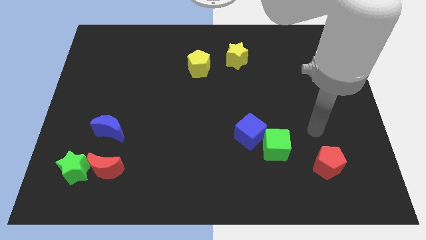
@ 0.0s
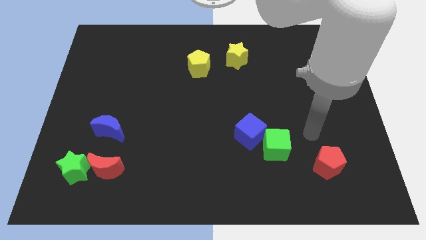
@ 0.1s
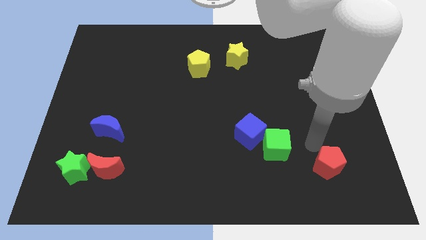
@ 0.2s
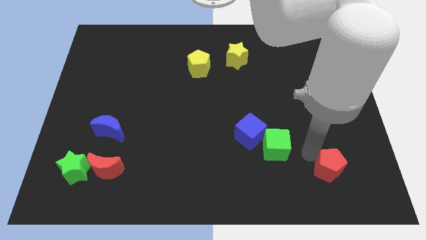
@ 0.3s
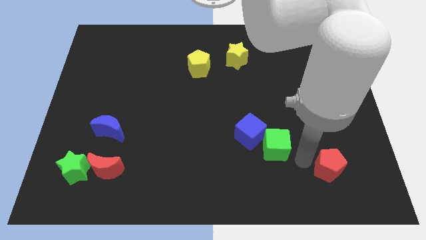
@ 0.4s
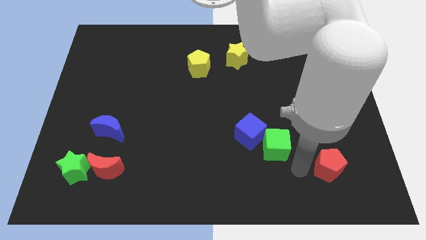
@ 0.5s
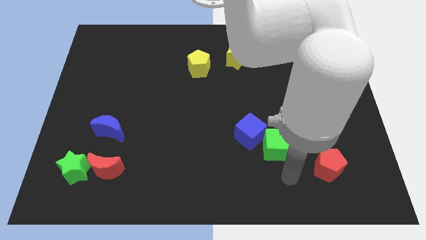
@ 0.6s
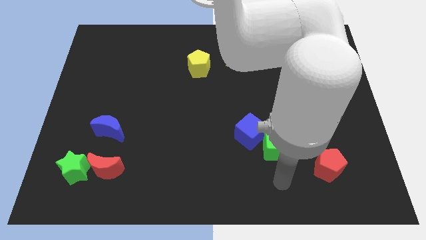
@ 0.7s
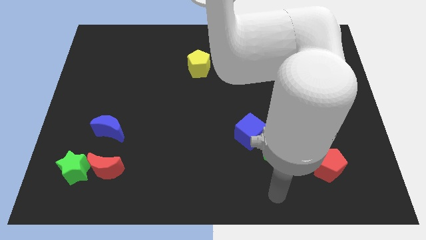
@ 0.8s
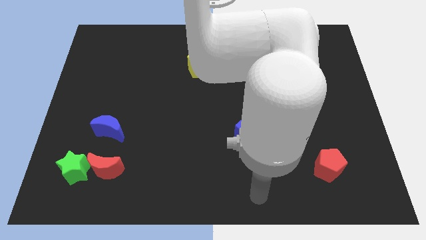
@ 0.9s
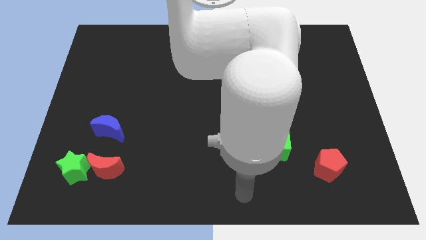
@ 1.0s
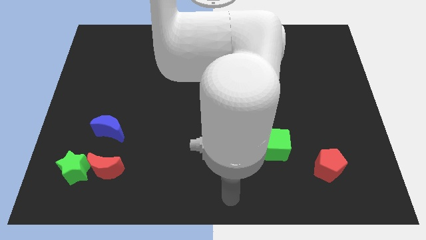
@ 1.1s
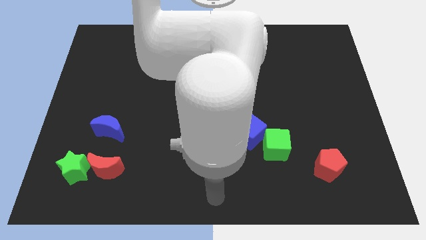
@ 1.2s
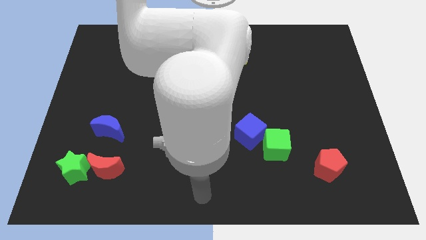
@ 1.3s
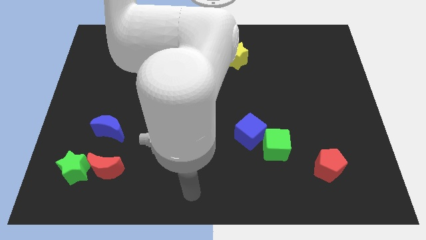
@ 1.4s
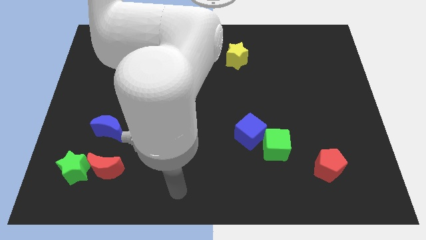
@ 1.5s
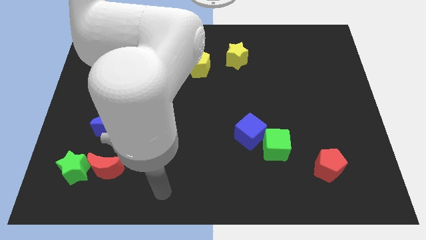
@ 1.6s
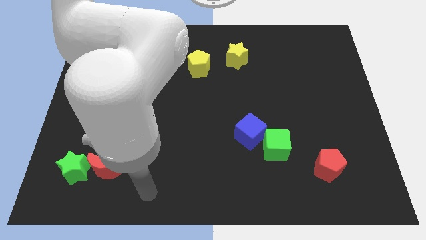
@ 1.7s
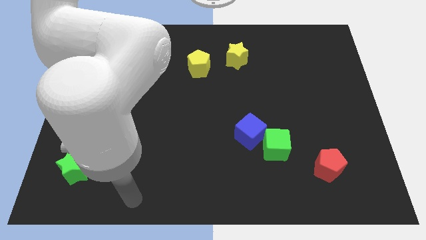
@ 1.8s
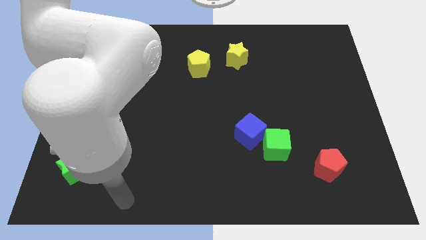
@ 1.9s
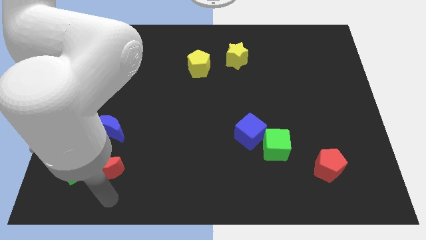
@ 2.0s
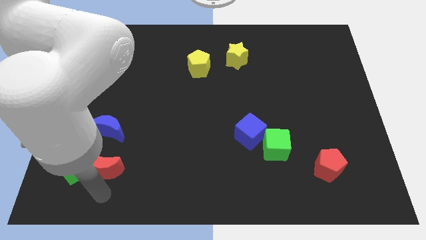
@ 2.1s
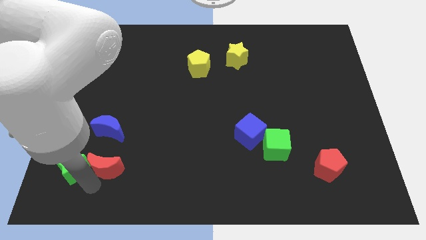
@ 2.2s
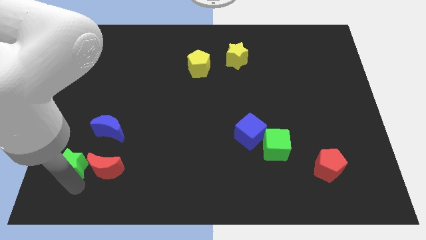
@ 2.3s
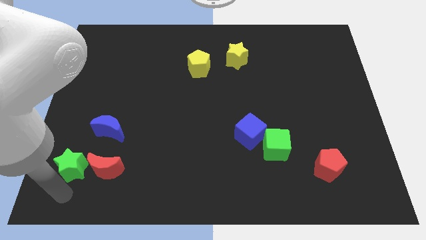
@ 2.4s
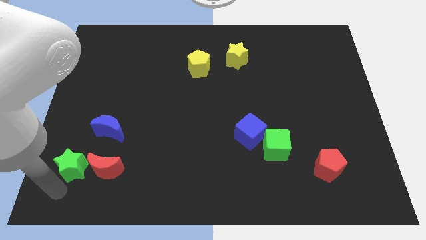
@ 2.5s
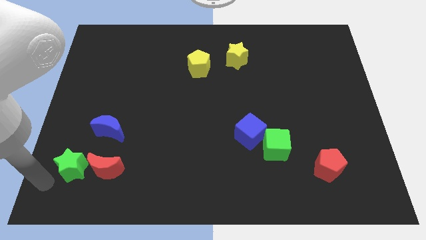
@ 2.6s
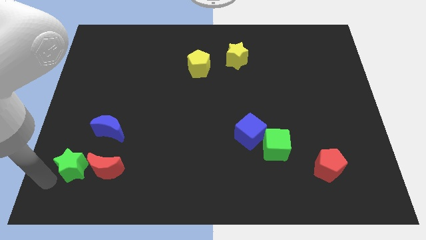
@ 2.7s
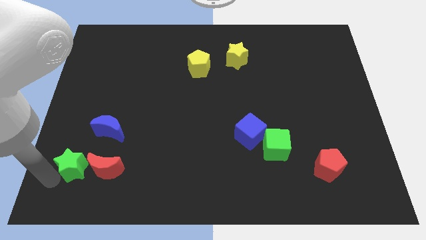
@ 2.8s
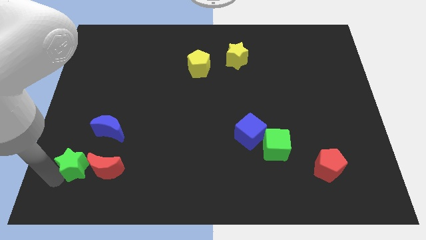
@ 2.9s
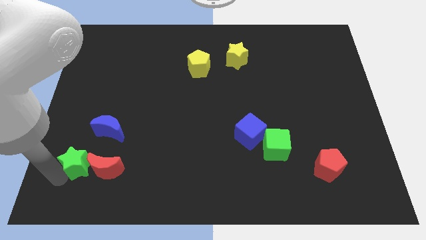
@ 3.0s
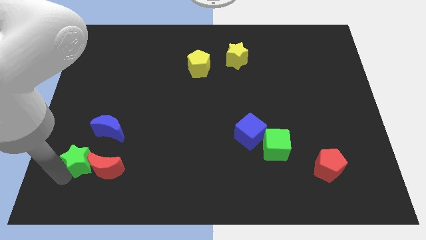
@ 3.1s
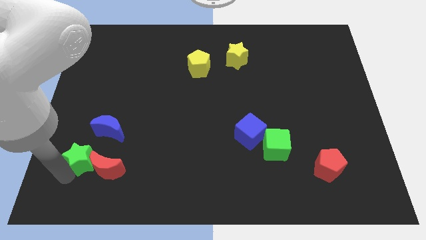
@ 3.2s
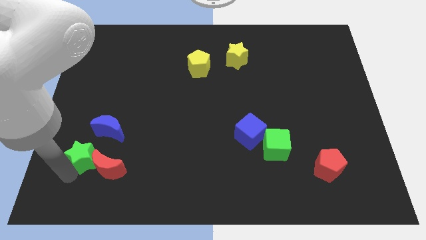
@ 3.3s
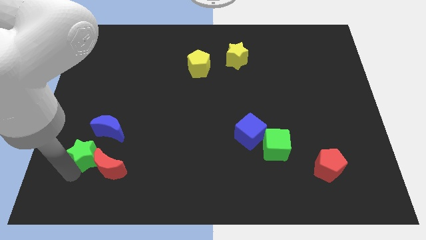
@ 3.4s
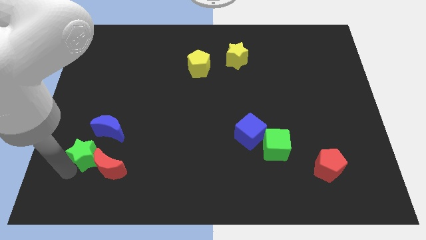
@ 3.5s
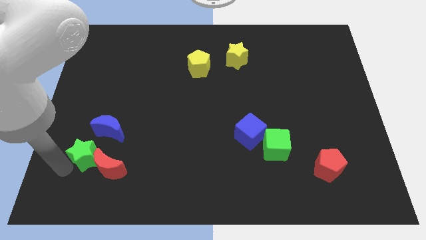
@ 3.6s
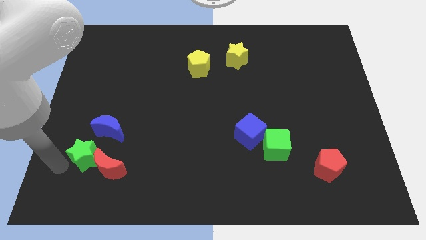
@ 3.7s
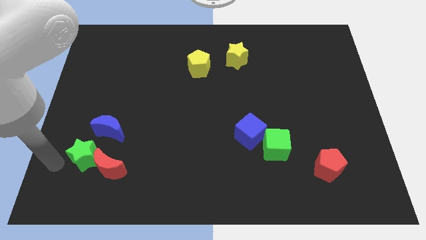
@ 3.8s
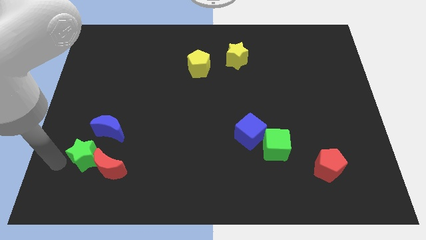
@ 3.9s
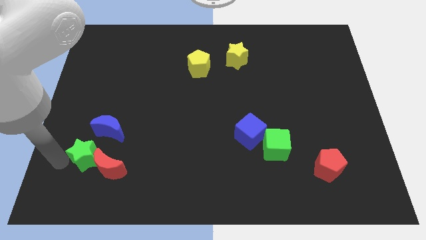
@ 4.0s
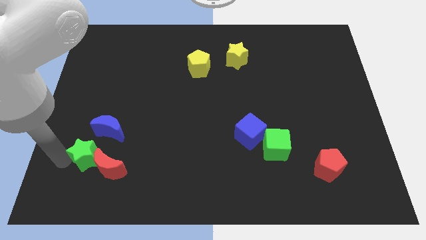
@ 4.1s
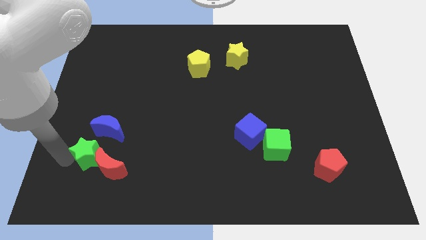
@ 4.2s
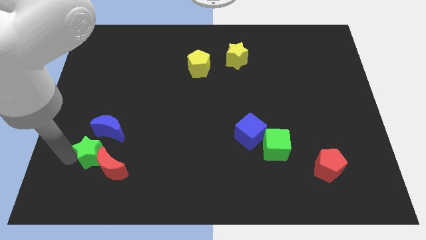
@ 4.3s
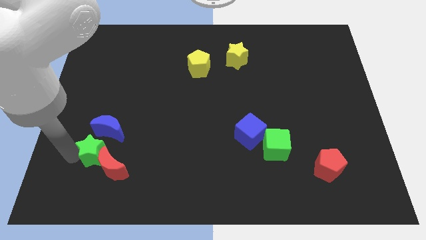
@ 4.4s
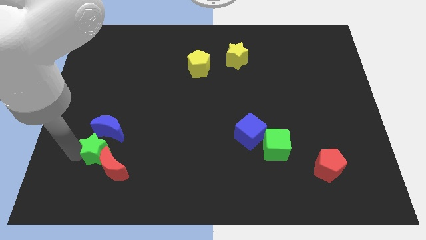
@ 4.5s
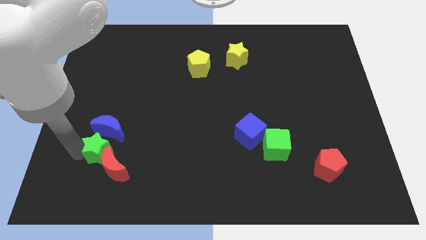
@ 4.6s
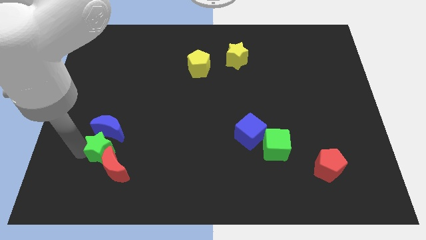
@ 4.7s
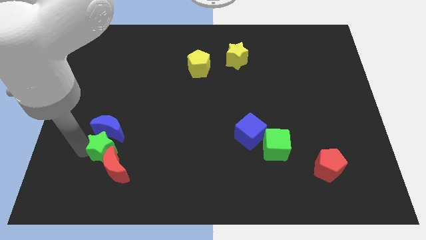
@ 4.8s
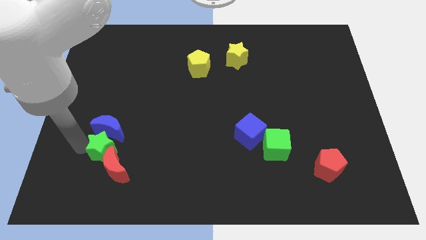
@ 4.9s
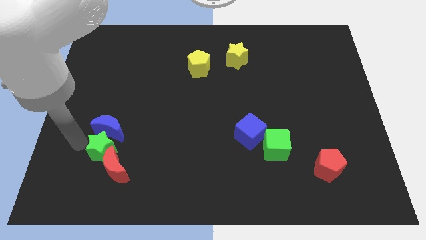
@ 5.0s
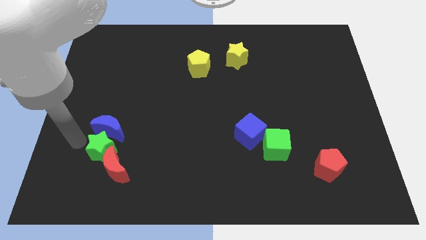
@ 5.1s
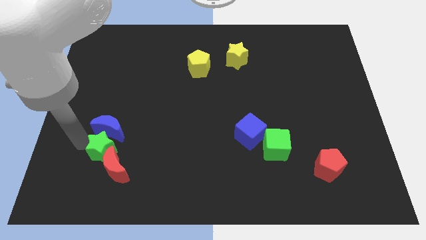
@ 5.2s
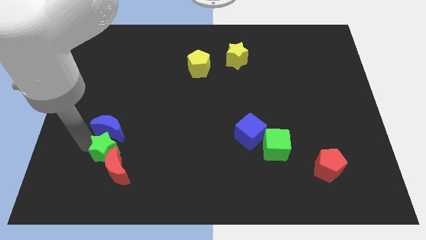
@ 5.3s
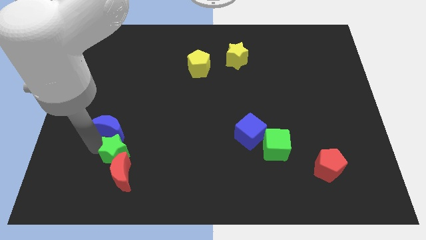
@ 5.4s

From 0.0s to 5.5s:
slightly slide the green star to the right

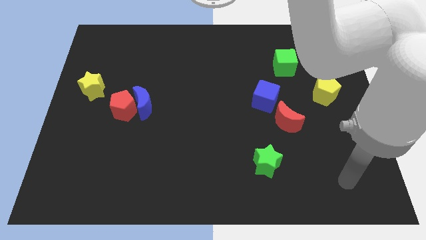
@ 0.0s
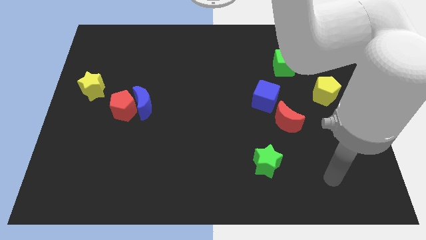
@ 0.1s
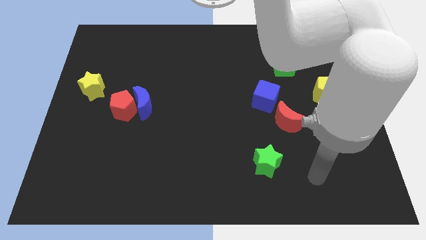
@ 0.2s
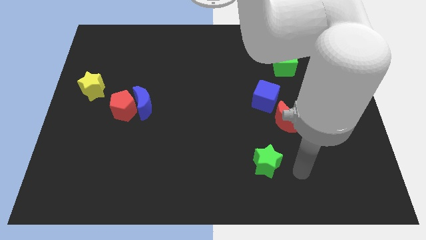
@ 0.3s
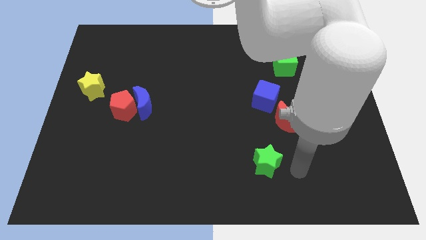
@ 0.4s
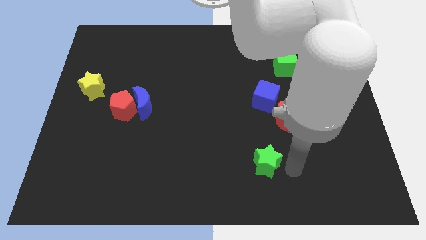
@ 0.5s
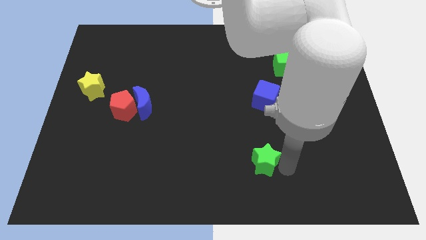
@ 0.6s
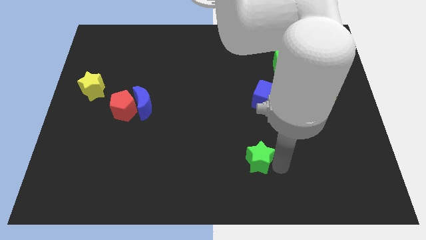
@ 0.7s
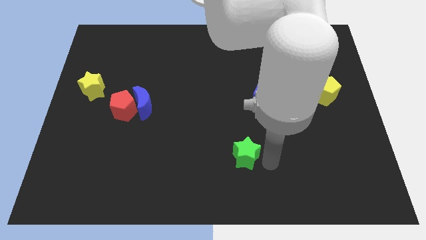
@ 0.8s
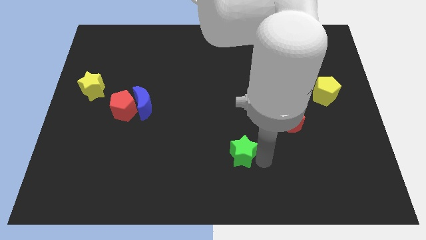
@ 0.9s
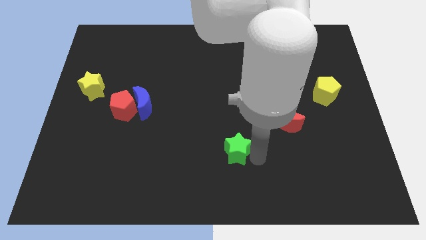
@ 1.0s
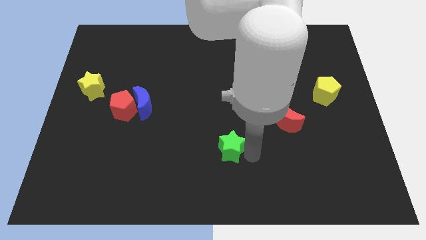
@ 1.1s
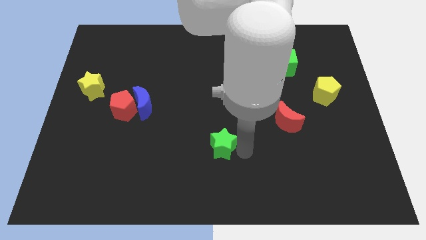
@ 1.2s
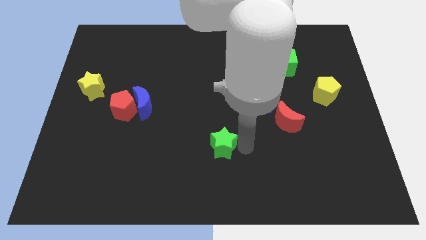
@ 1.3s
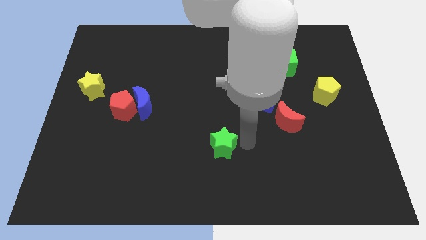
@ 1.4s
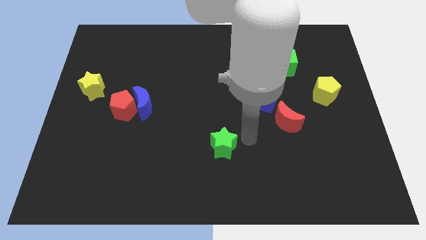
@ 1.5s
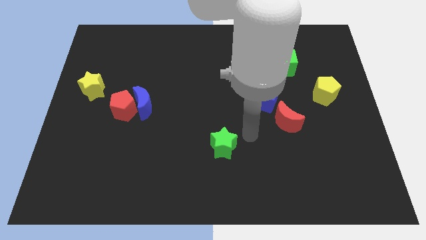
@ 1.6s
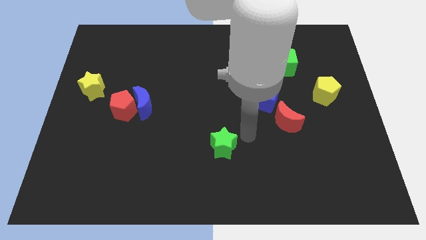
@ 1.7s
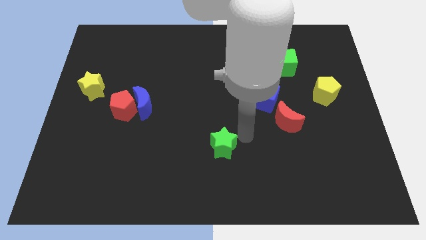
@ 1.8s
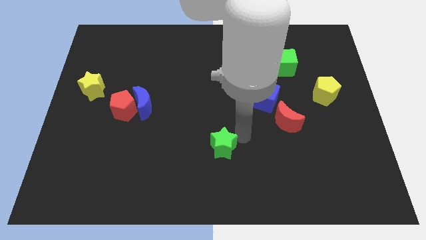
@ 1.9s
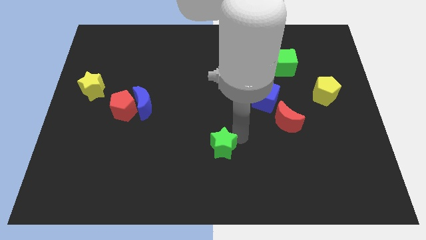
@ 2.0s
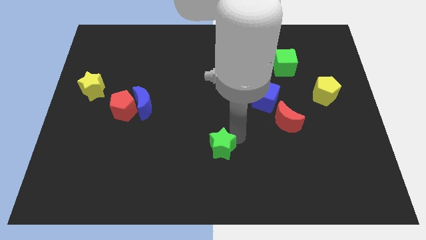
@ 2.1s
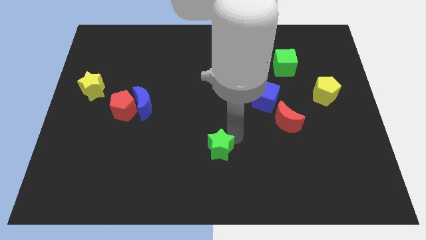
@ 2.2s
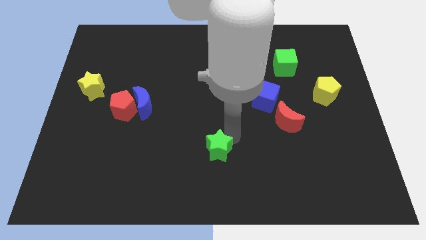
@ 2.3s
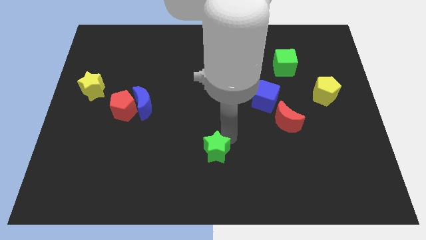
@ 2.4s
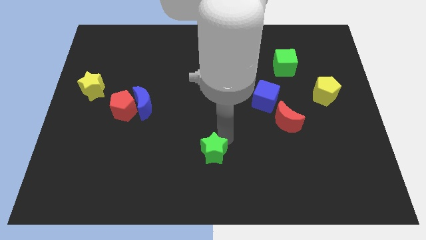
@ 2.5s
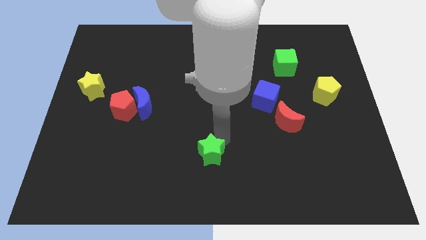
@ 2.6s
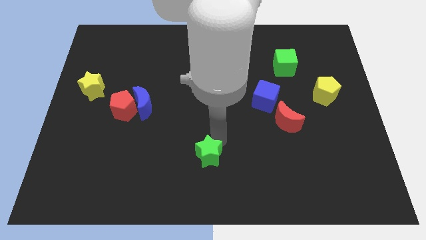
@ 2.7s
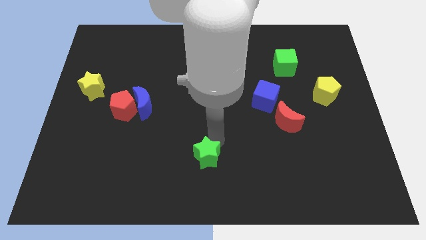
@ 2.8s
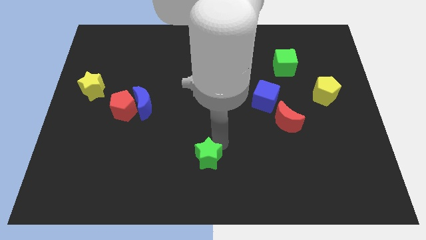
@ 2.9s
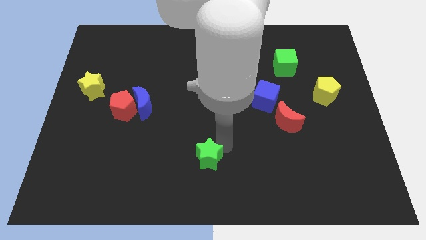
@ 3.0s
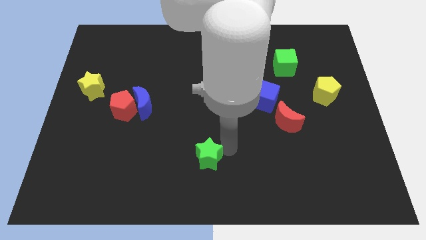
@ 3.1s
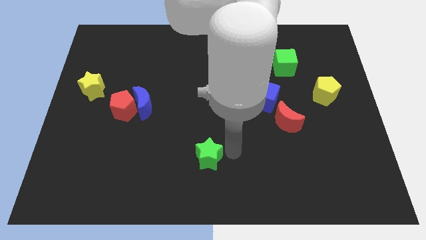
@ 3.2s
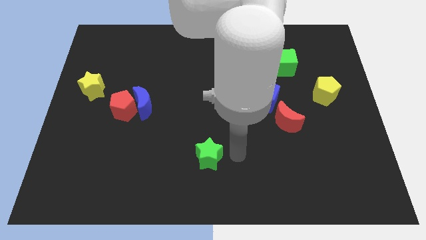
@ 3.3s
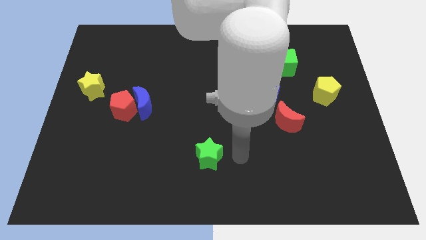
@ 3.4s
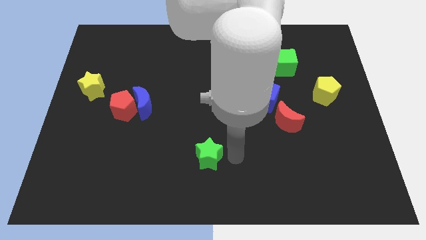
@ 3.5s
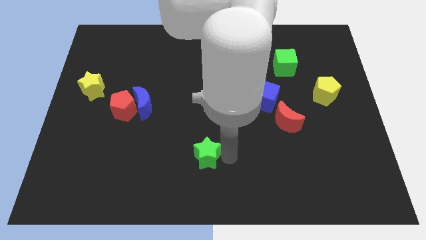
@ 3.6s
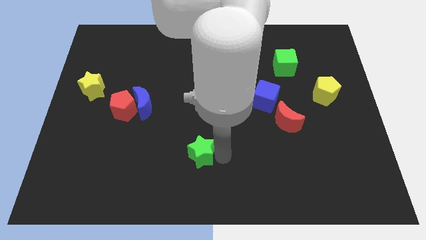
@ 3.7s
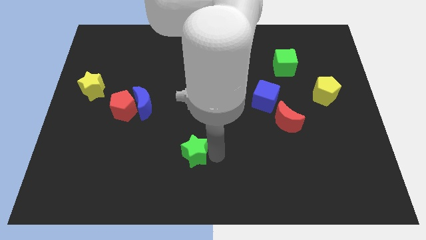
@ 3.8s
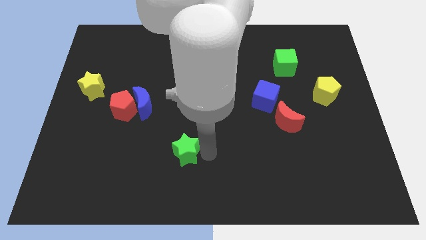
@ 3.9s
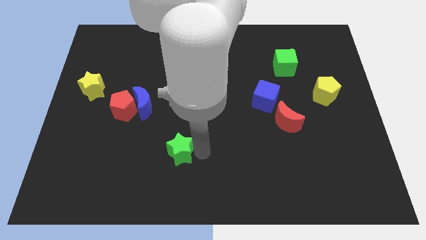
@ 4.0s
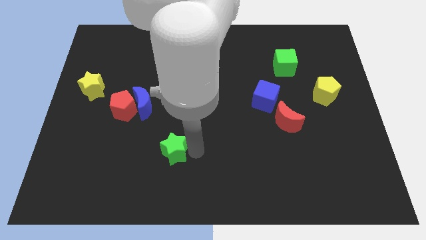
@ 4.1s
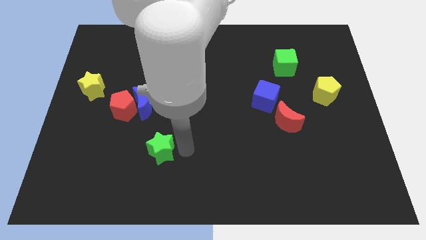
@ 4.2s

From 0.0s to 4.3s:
slide the green star left
